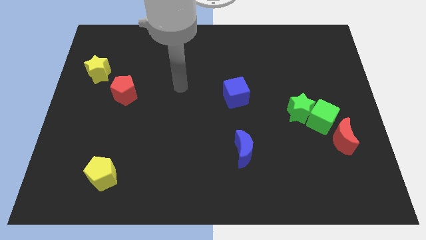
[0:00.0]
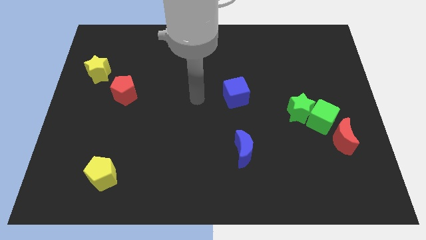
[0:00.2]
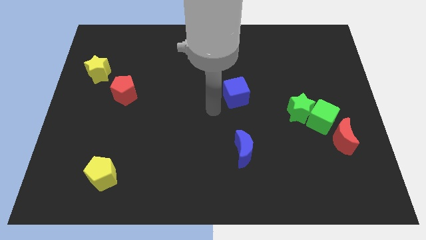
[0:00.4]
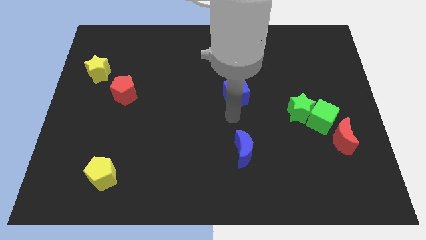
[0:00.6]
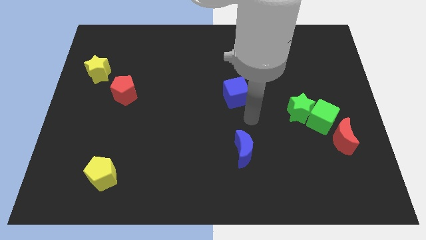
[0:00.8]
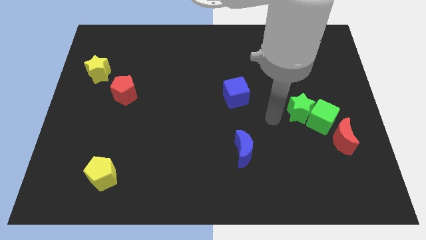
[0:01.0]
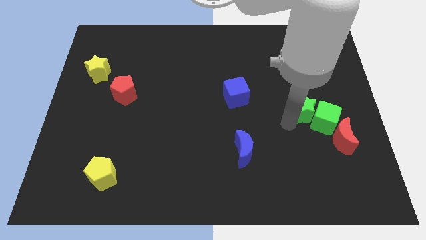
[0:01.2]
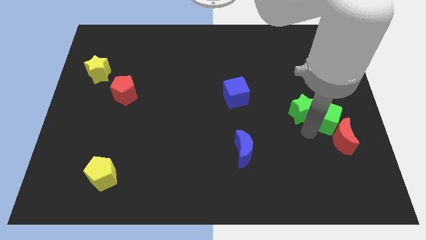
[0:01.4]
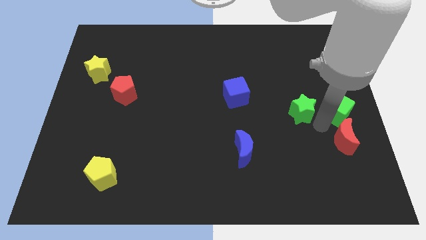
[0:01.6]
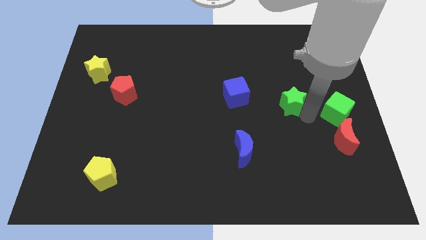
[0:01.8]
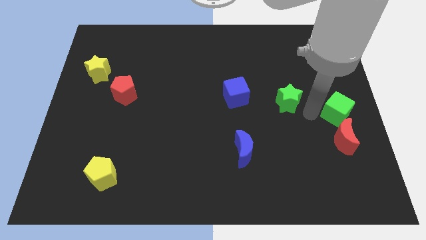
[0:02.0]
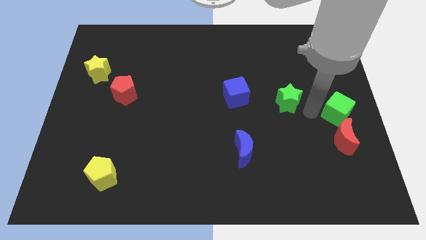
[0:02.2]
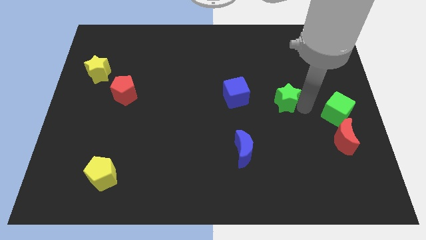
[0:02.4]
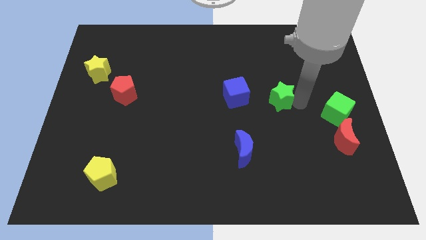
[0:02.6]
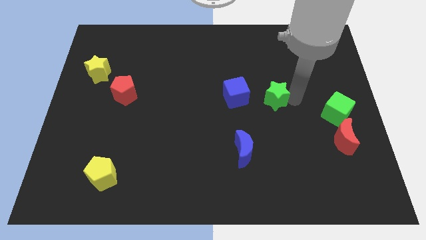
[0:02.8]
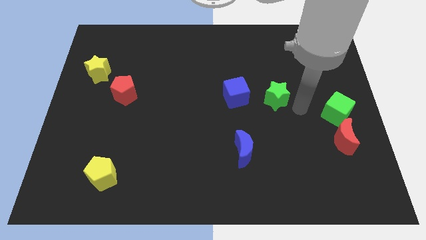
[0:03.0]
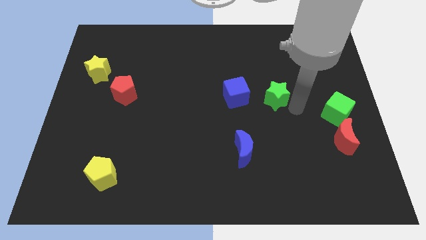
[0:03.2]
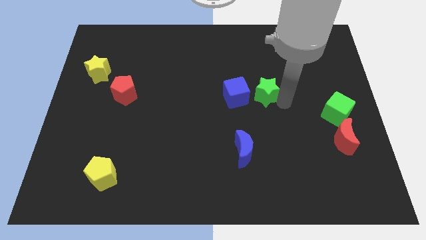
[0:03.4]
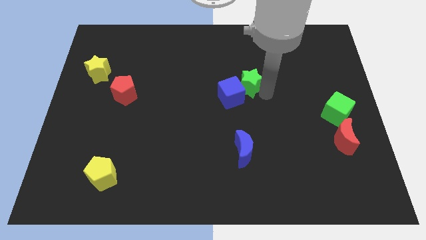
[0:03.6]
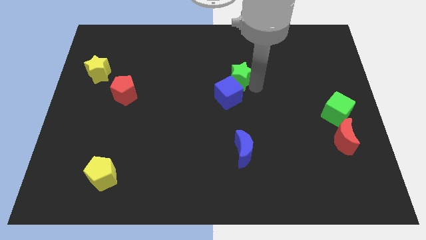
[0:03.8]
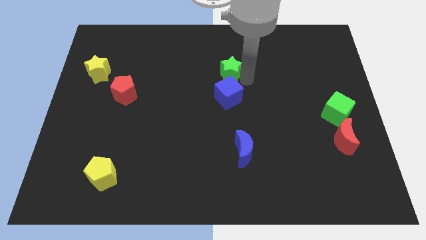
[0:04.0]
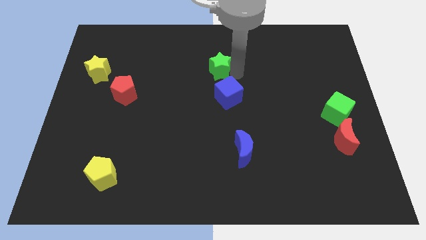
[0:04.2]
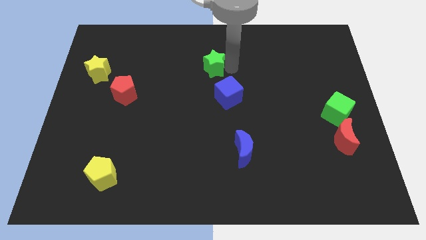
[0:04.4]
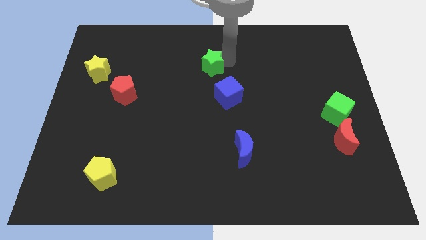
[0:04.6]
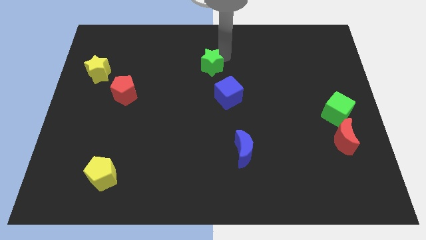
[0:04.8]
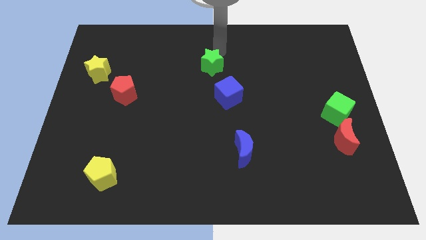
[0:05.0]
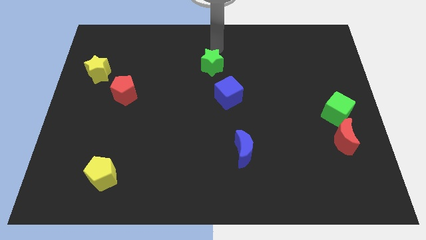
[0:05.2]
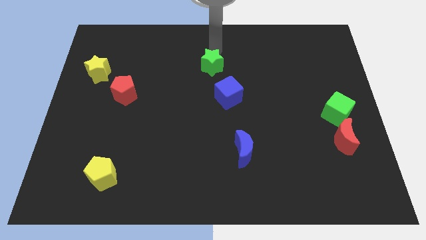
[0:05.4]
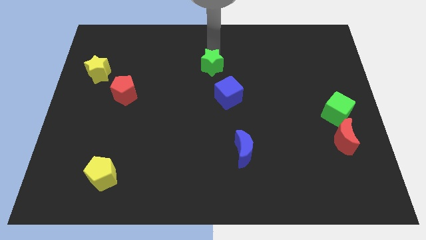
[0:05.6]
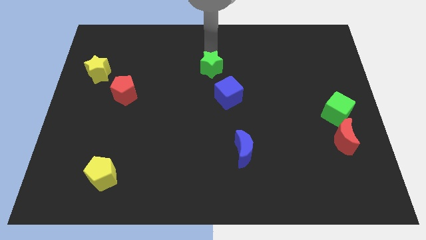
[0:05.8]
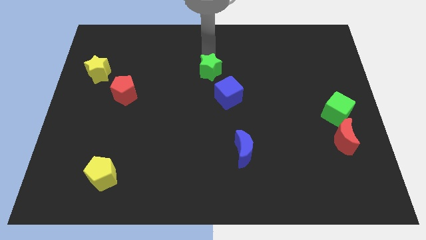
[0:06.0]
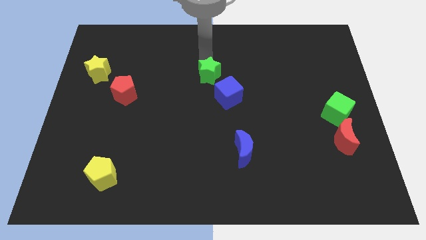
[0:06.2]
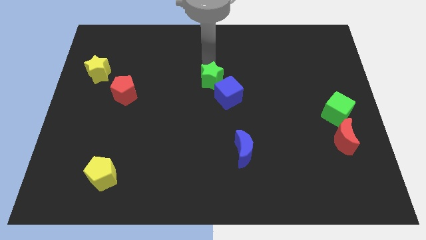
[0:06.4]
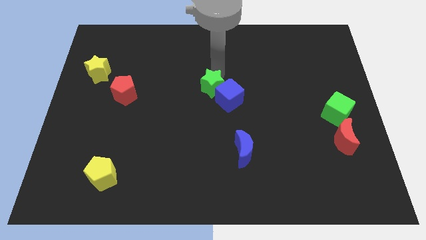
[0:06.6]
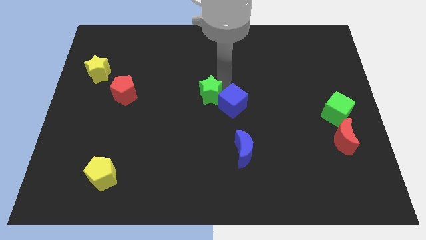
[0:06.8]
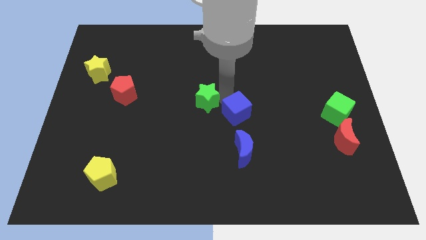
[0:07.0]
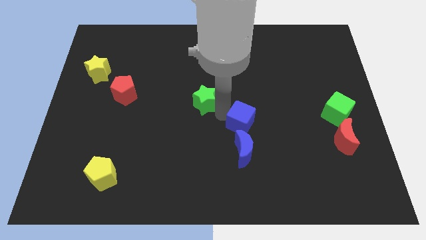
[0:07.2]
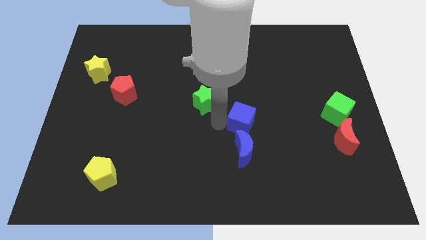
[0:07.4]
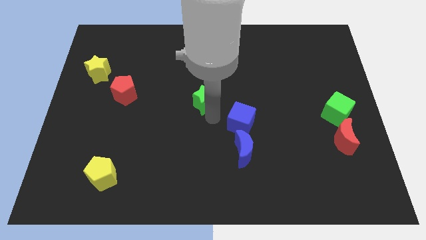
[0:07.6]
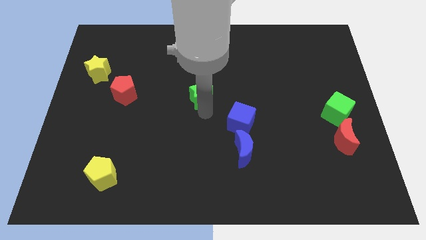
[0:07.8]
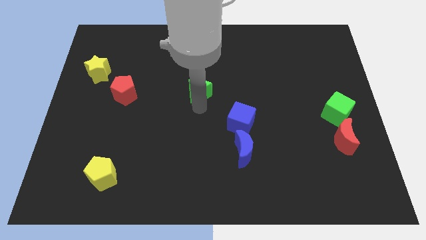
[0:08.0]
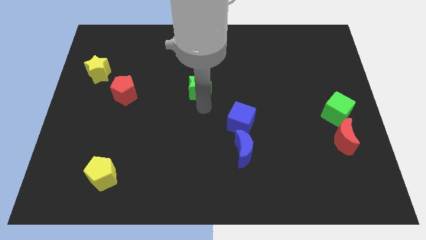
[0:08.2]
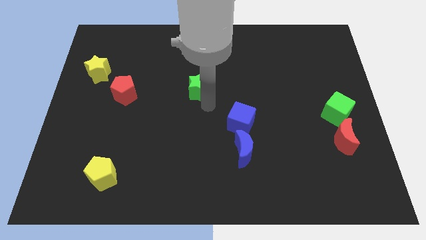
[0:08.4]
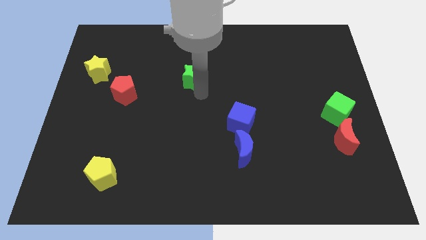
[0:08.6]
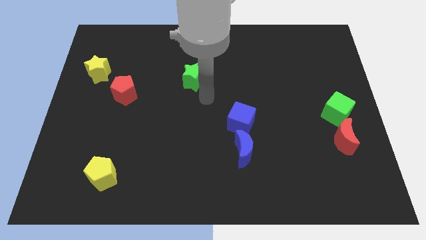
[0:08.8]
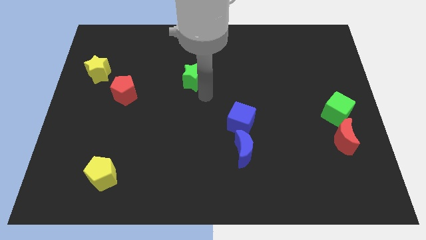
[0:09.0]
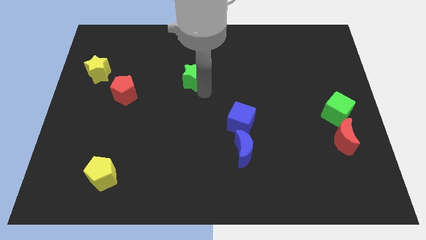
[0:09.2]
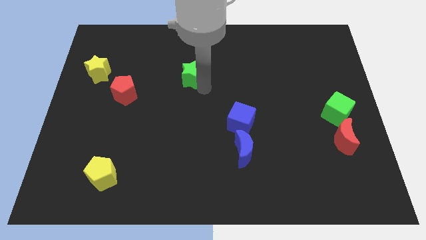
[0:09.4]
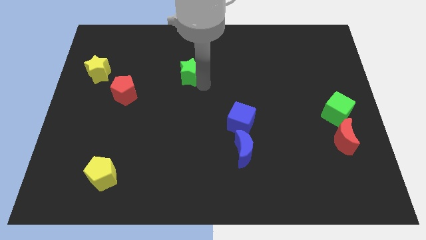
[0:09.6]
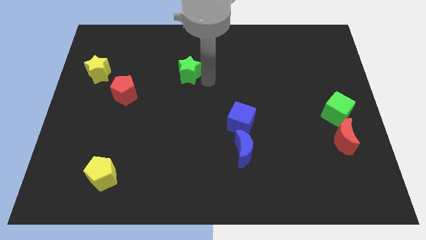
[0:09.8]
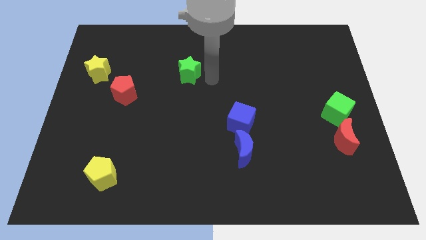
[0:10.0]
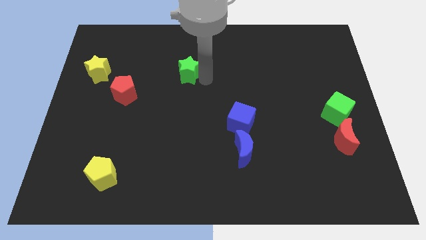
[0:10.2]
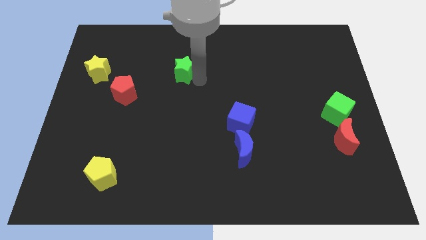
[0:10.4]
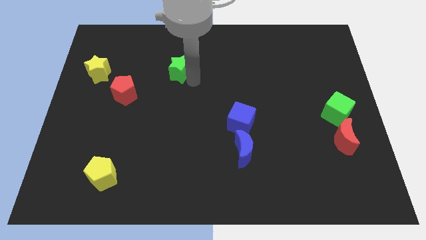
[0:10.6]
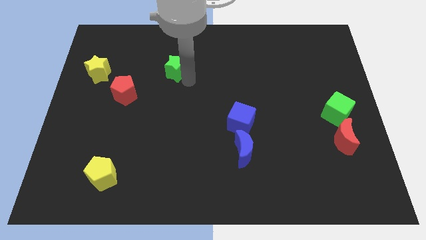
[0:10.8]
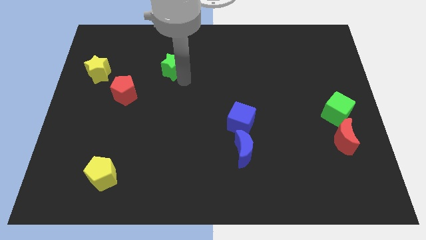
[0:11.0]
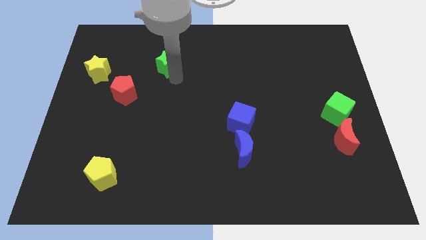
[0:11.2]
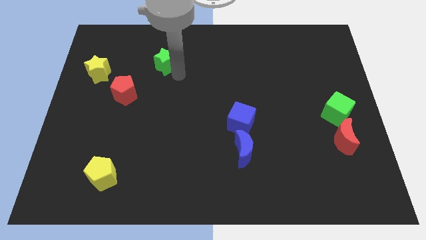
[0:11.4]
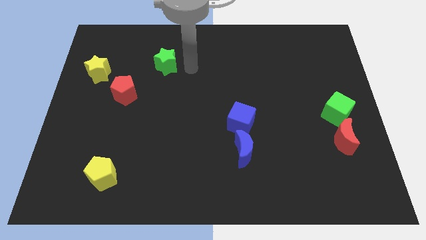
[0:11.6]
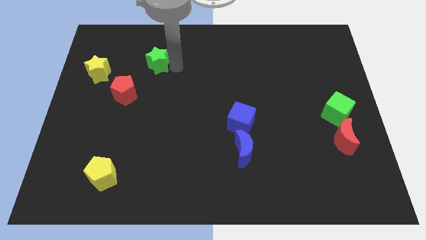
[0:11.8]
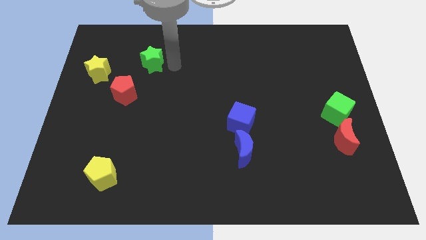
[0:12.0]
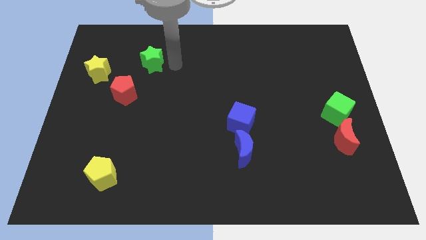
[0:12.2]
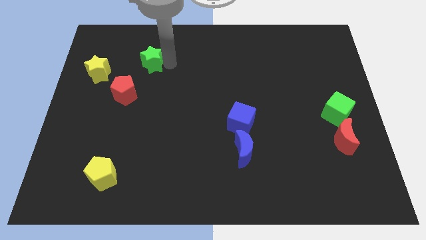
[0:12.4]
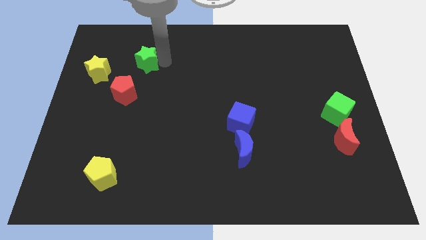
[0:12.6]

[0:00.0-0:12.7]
move the green star to the top side of the red pentagon

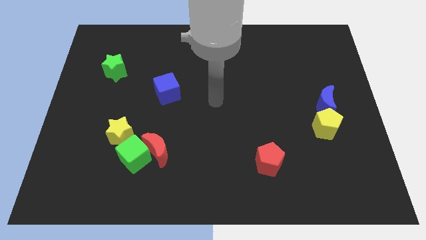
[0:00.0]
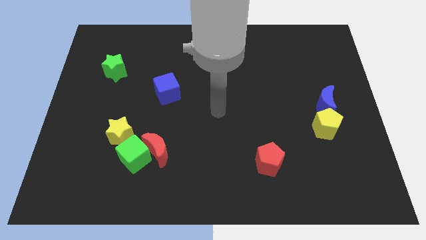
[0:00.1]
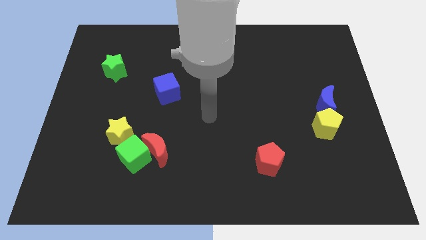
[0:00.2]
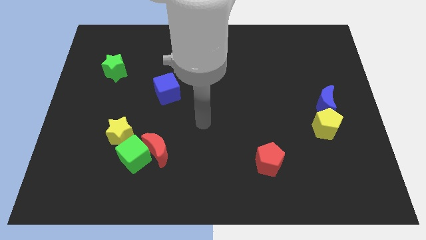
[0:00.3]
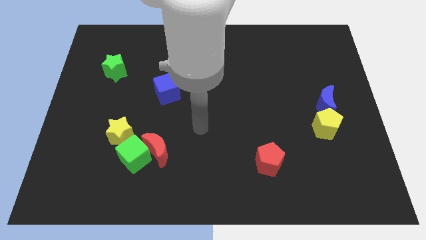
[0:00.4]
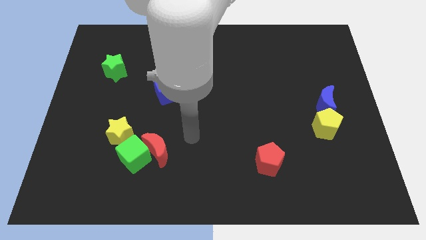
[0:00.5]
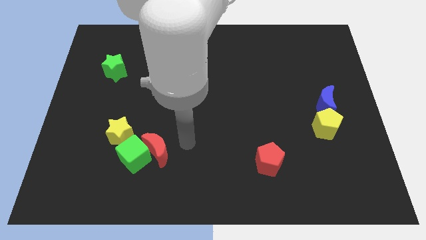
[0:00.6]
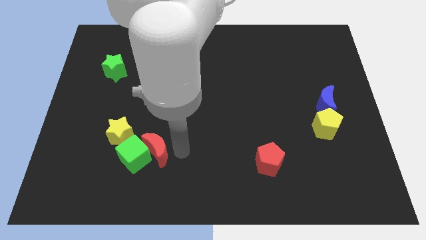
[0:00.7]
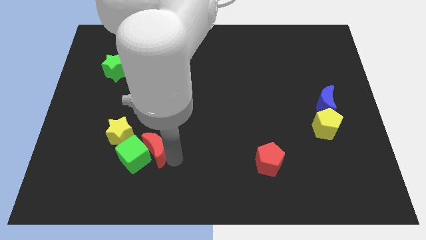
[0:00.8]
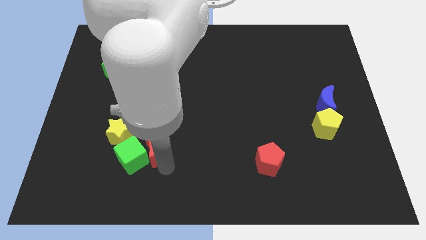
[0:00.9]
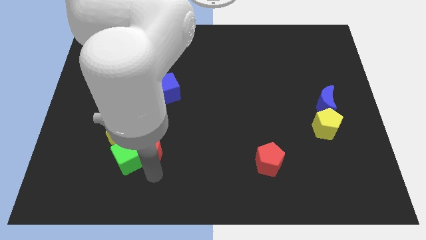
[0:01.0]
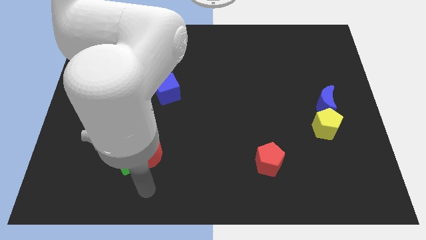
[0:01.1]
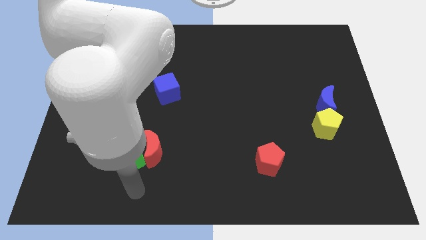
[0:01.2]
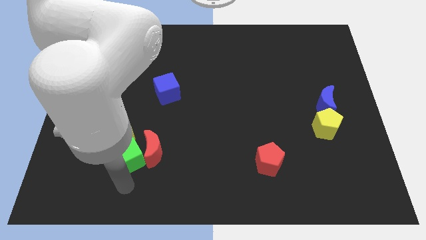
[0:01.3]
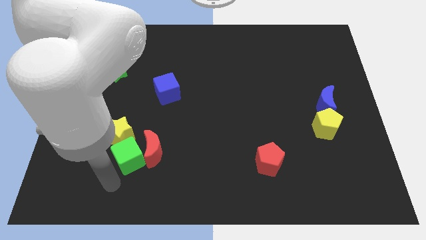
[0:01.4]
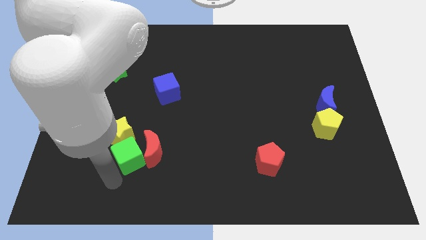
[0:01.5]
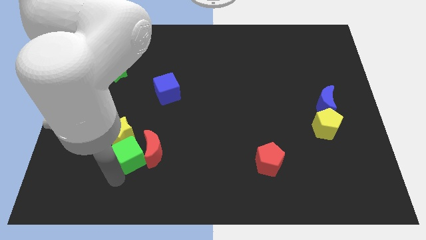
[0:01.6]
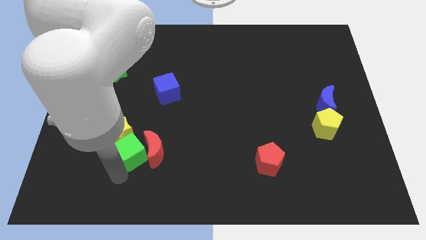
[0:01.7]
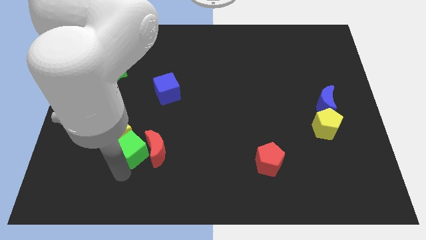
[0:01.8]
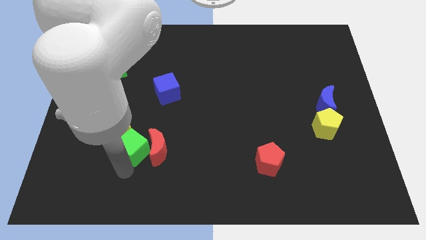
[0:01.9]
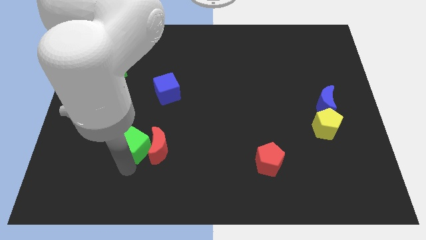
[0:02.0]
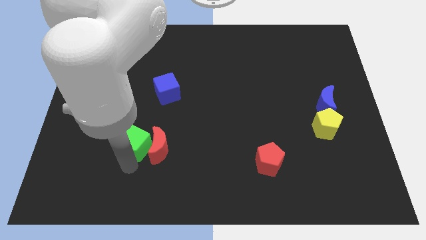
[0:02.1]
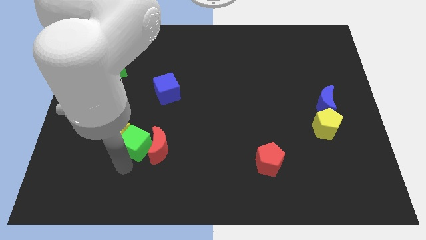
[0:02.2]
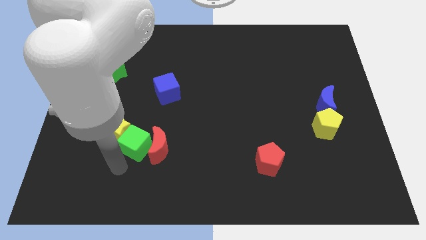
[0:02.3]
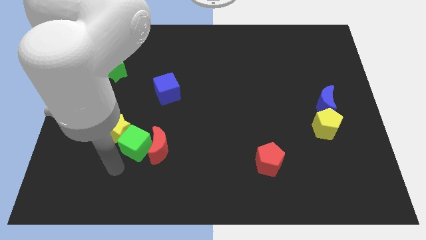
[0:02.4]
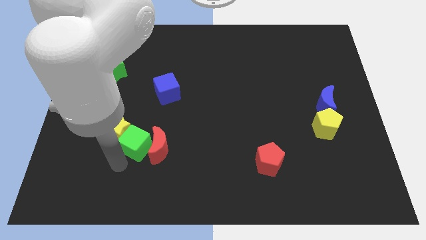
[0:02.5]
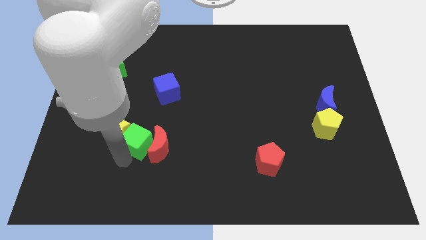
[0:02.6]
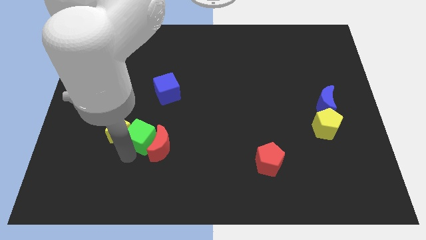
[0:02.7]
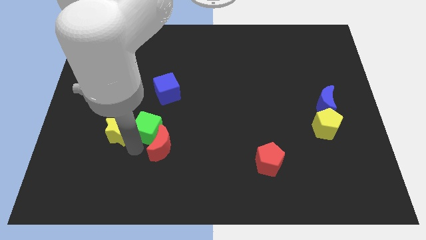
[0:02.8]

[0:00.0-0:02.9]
slide the green cube to the top side of the red moon
